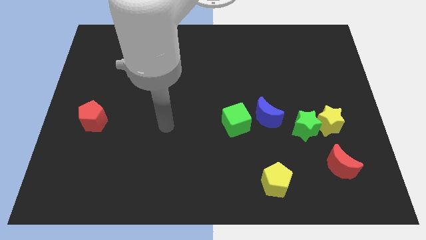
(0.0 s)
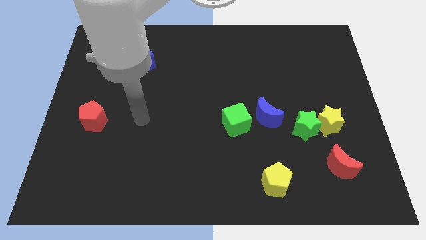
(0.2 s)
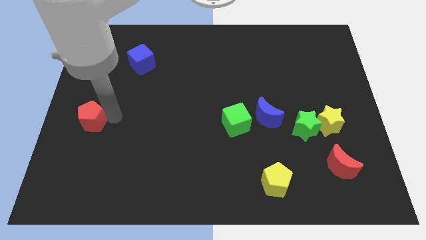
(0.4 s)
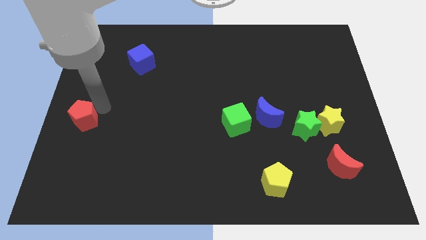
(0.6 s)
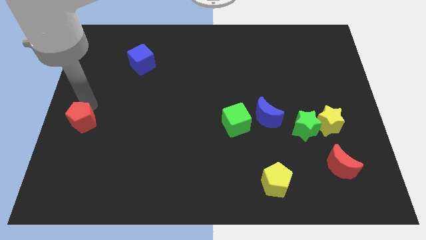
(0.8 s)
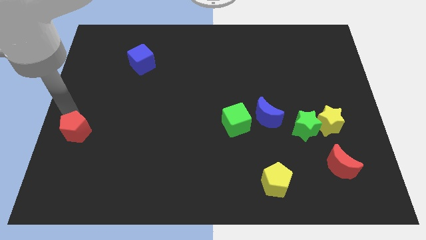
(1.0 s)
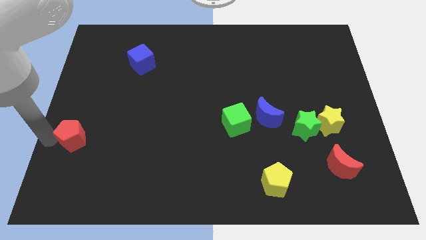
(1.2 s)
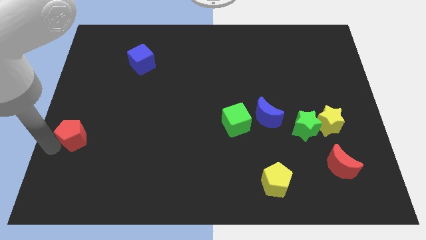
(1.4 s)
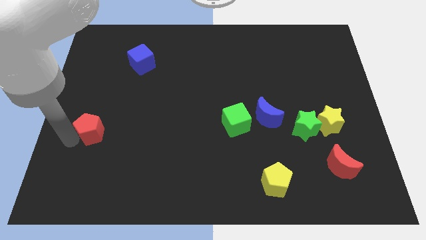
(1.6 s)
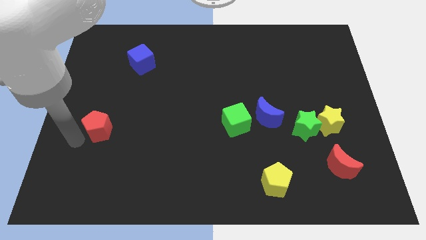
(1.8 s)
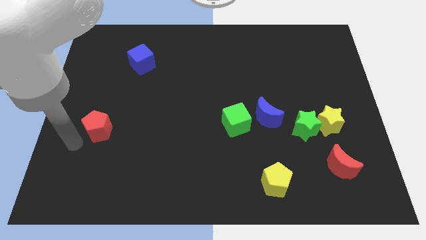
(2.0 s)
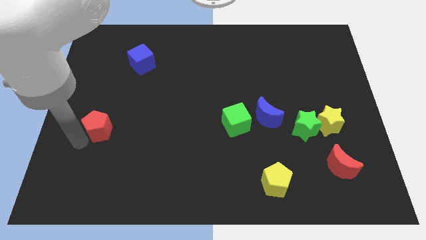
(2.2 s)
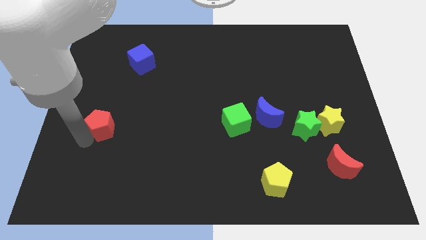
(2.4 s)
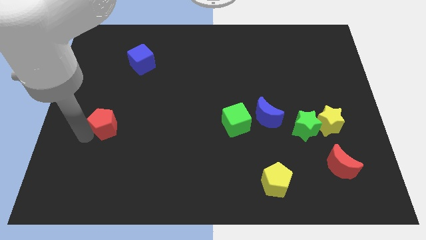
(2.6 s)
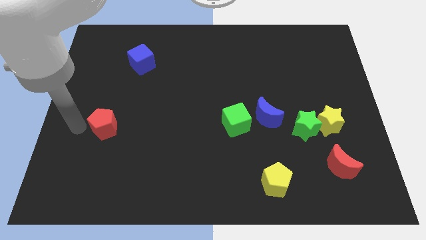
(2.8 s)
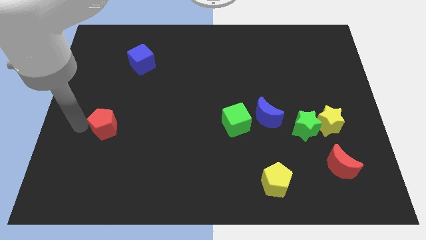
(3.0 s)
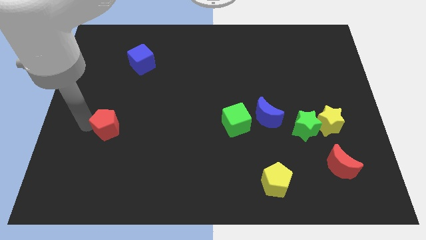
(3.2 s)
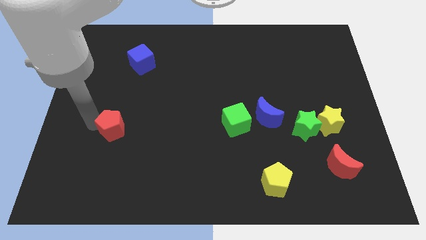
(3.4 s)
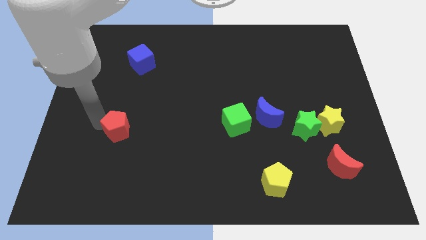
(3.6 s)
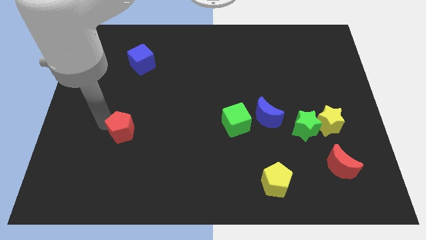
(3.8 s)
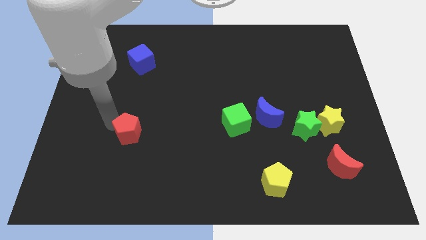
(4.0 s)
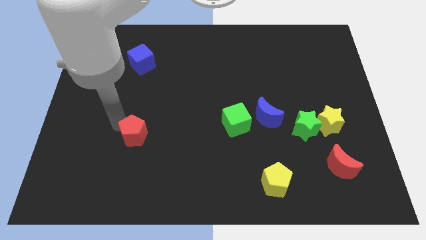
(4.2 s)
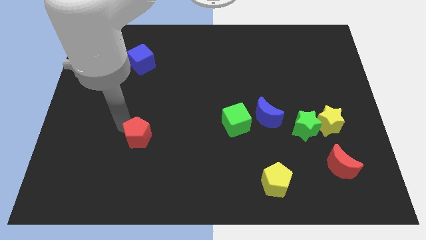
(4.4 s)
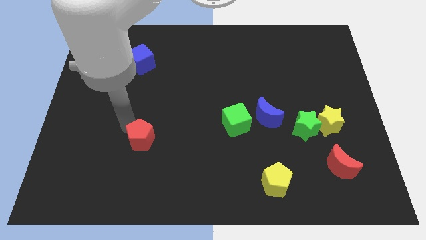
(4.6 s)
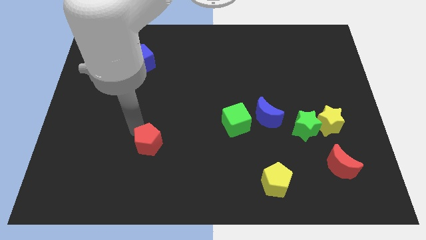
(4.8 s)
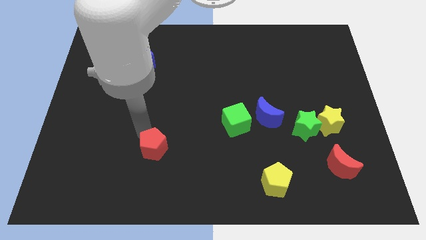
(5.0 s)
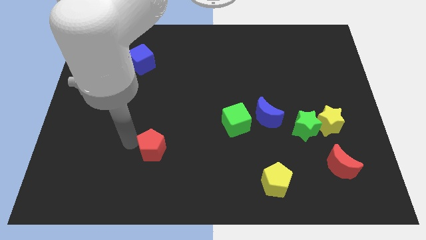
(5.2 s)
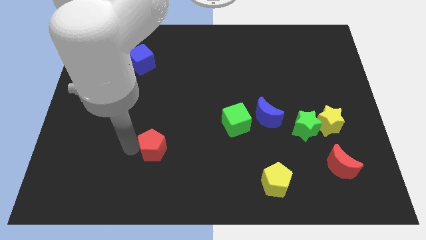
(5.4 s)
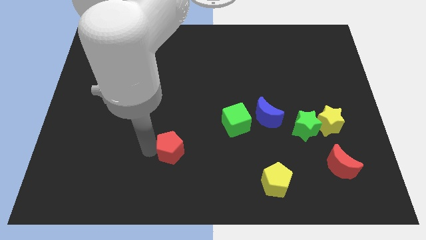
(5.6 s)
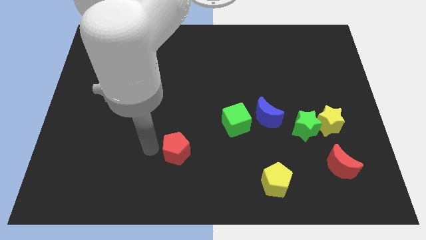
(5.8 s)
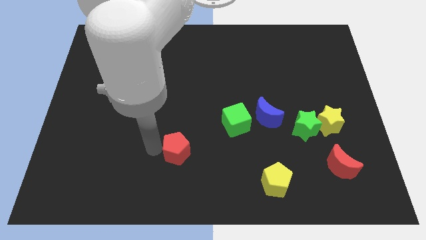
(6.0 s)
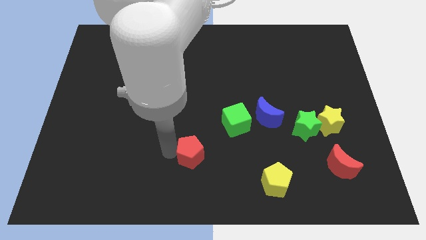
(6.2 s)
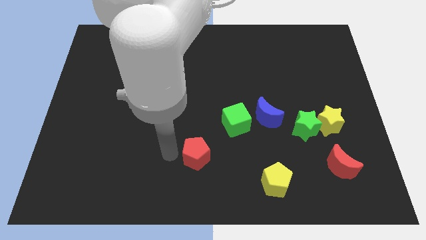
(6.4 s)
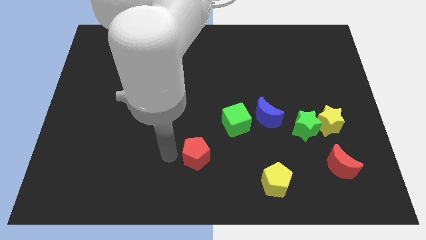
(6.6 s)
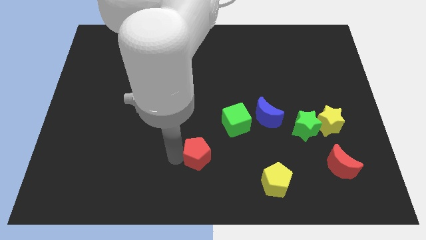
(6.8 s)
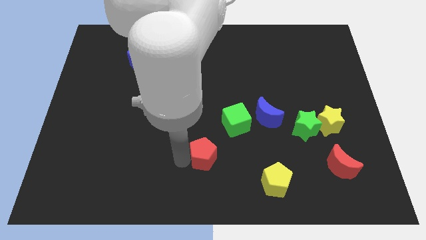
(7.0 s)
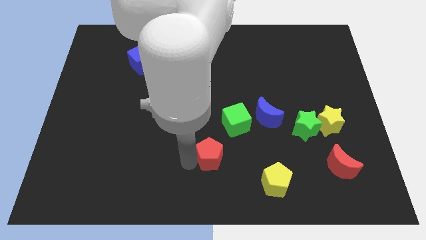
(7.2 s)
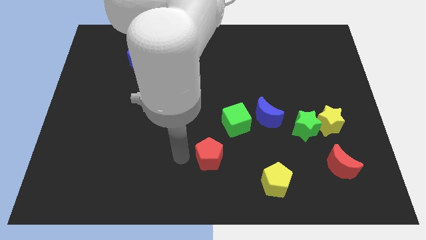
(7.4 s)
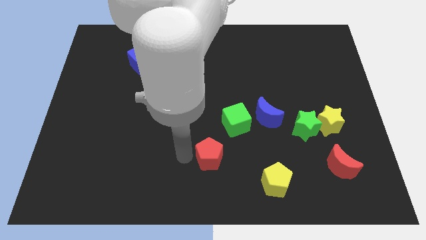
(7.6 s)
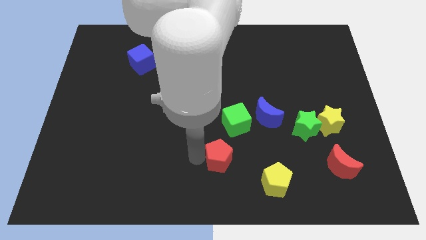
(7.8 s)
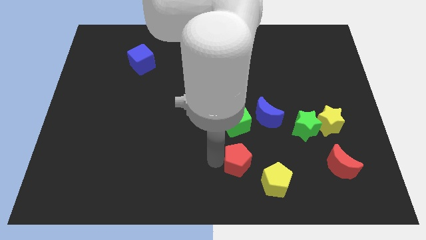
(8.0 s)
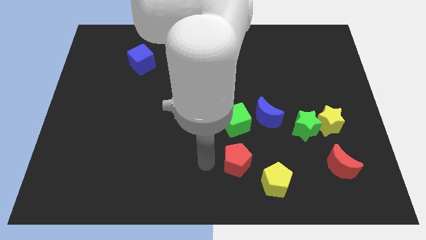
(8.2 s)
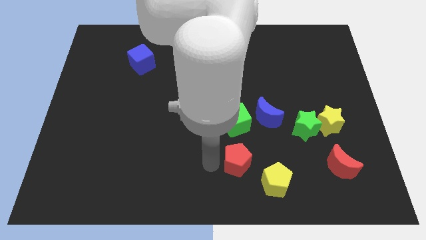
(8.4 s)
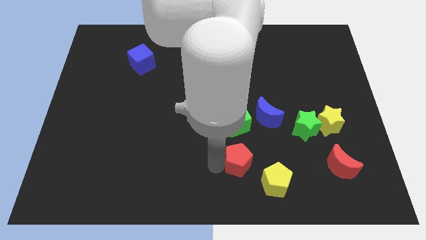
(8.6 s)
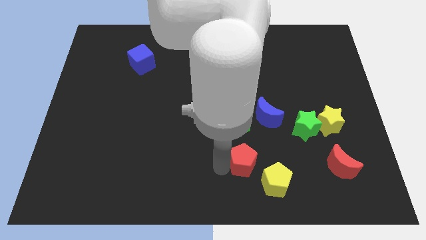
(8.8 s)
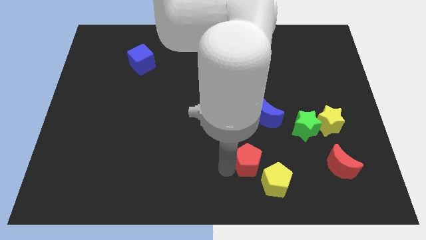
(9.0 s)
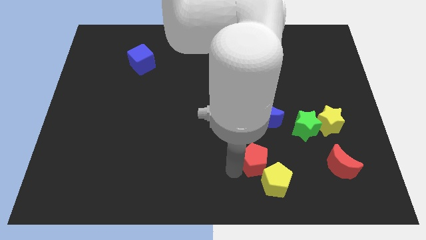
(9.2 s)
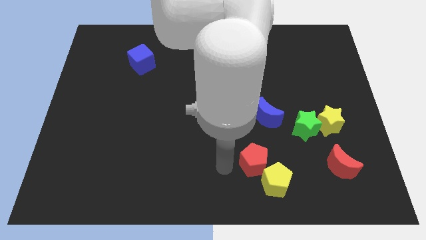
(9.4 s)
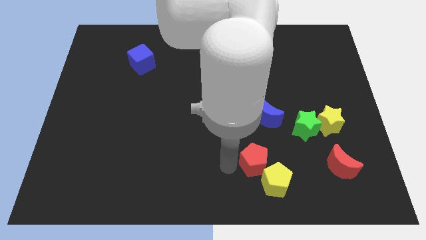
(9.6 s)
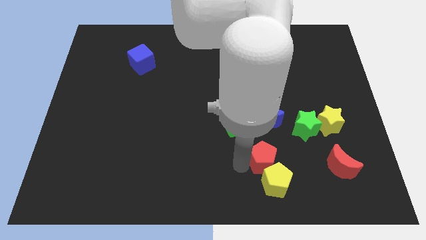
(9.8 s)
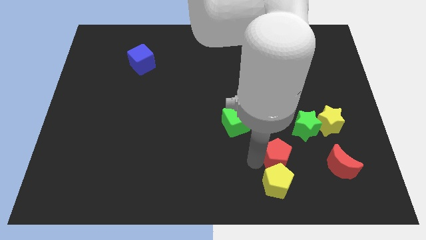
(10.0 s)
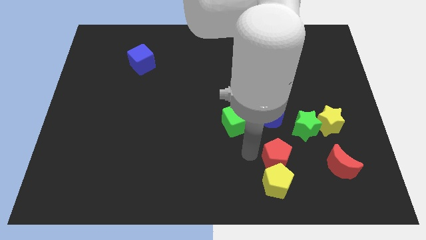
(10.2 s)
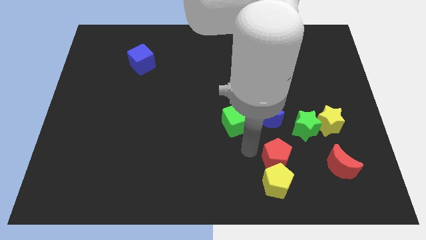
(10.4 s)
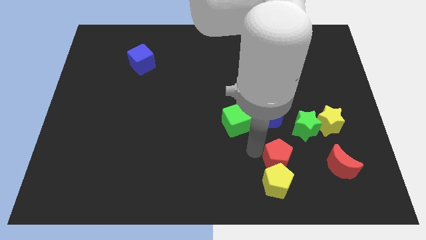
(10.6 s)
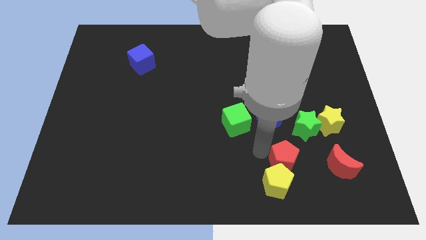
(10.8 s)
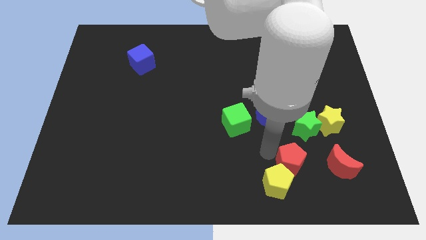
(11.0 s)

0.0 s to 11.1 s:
put the red pentagon to the bottom of the green star

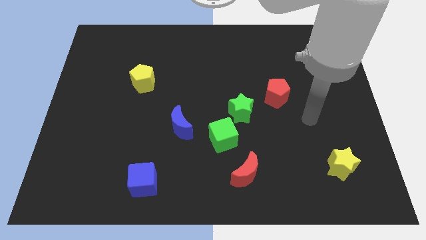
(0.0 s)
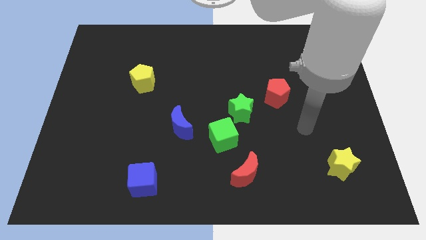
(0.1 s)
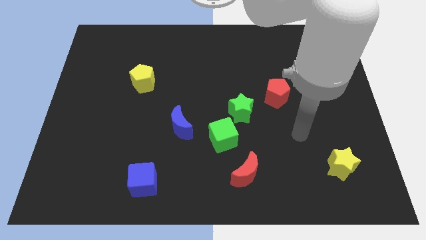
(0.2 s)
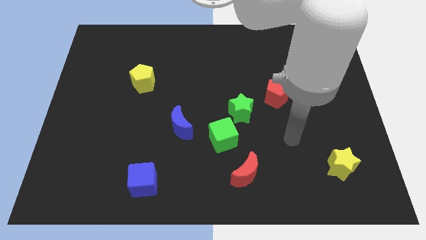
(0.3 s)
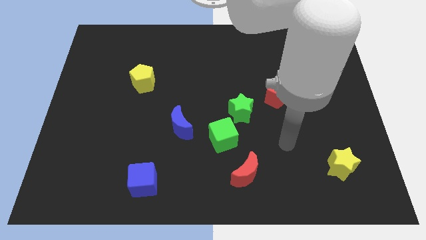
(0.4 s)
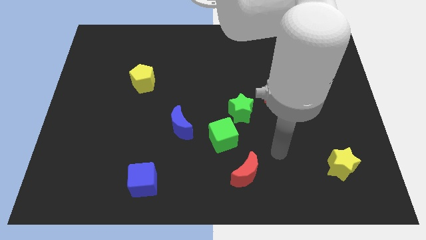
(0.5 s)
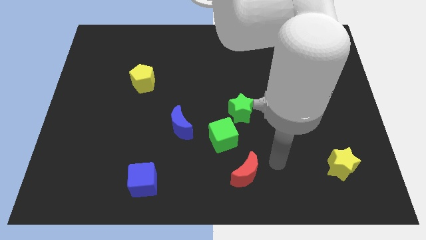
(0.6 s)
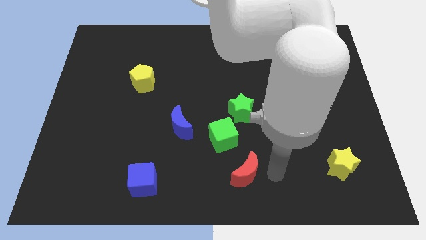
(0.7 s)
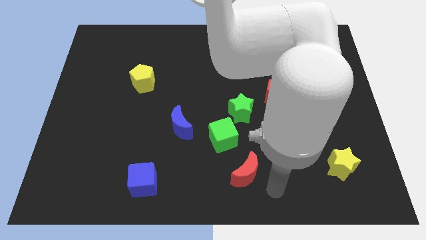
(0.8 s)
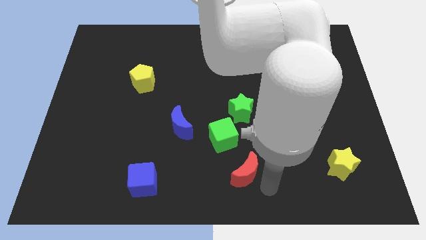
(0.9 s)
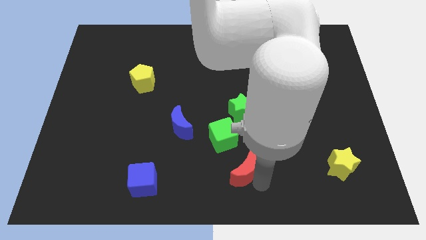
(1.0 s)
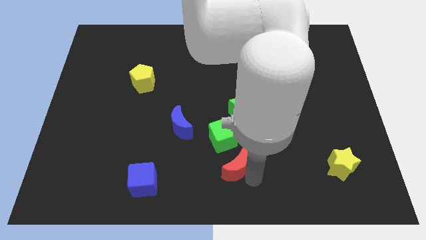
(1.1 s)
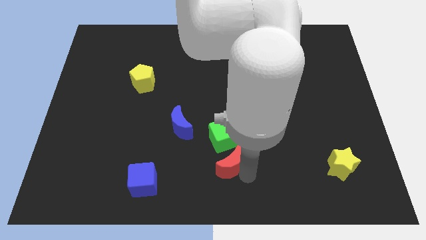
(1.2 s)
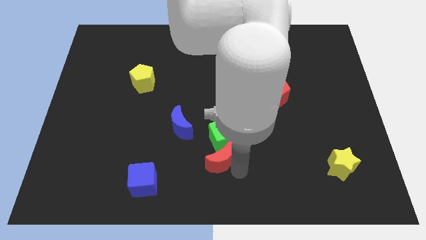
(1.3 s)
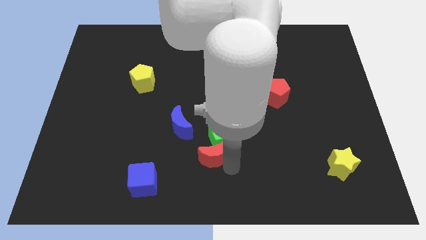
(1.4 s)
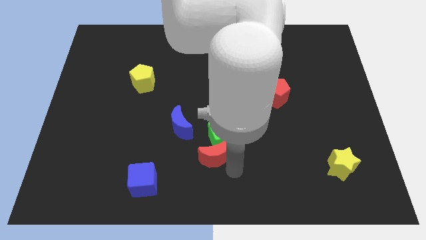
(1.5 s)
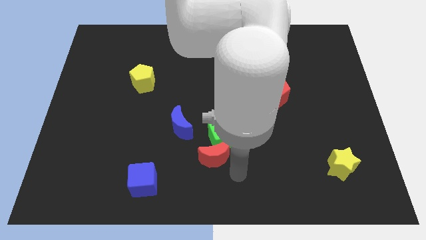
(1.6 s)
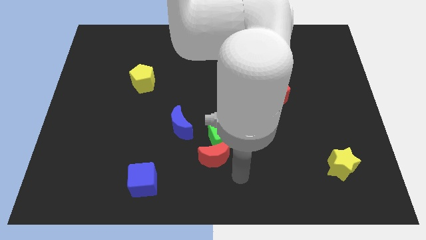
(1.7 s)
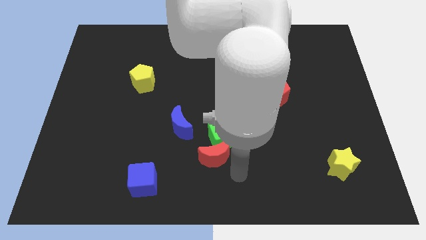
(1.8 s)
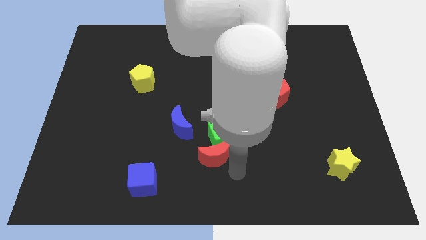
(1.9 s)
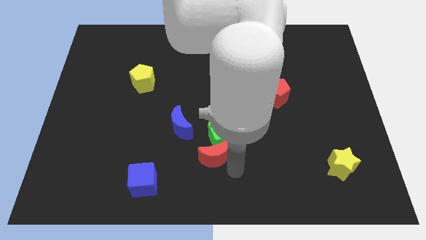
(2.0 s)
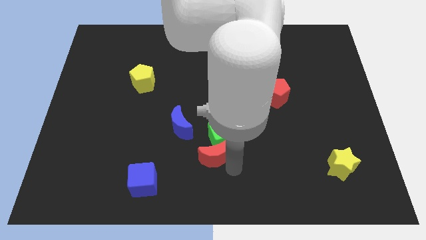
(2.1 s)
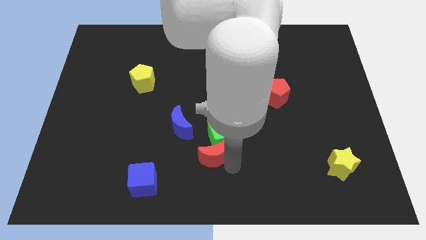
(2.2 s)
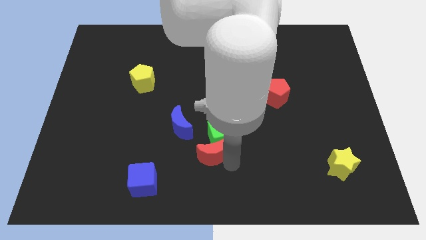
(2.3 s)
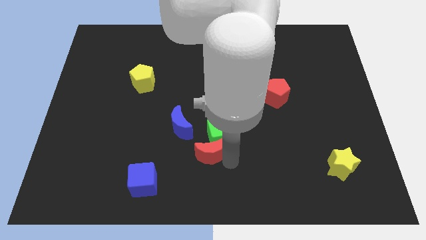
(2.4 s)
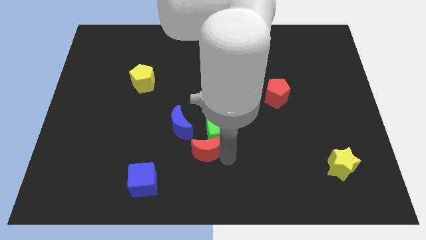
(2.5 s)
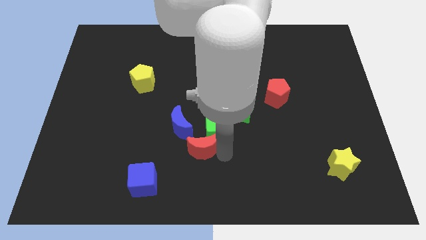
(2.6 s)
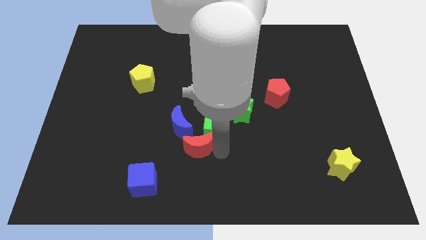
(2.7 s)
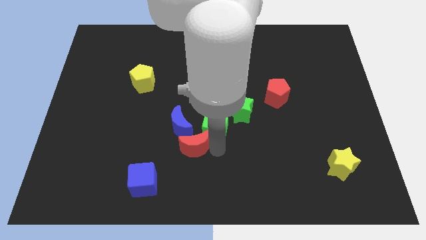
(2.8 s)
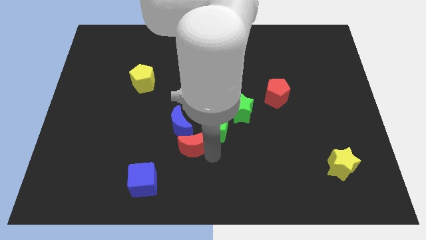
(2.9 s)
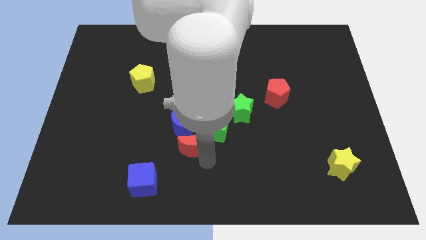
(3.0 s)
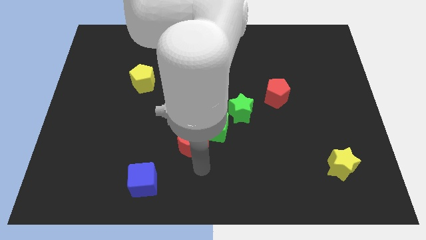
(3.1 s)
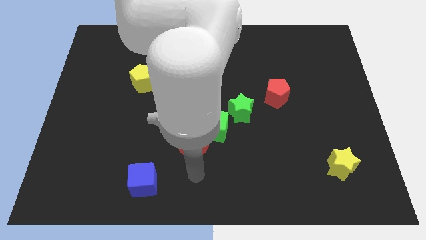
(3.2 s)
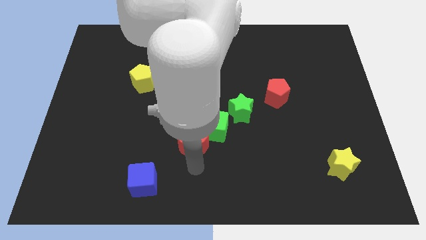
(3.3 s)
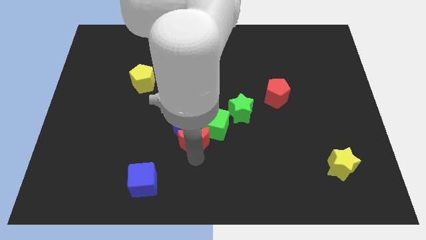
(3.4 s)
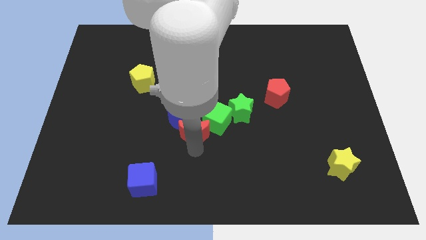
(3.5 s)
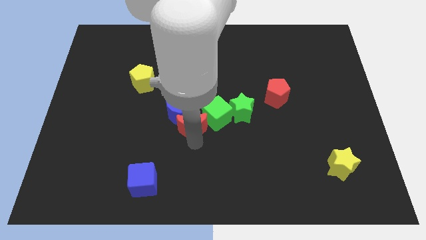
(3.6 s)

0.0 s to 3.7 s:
slide the red moon to the left side of the green star
